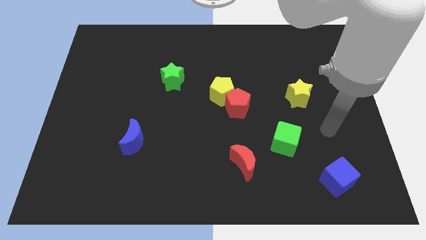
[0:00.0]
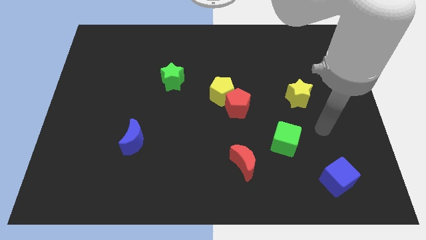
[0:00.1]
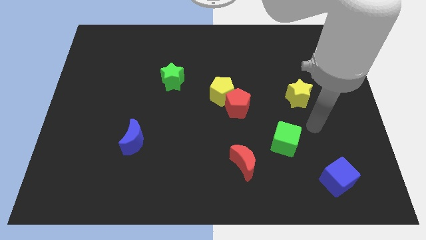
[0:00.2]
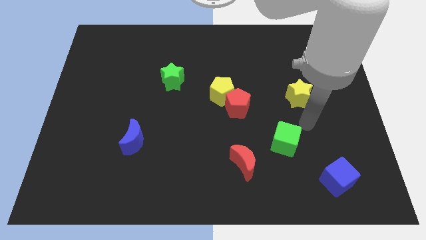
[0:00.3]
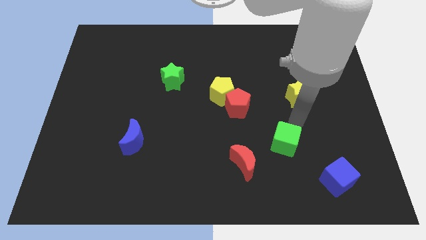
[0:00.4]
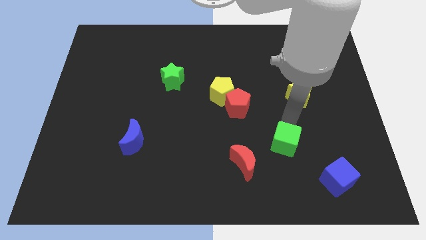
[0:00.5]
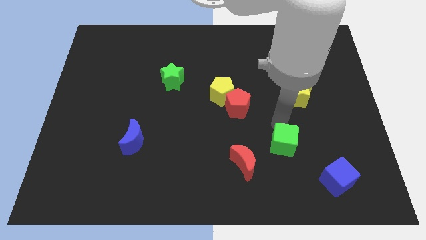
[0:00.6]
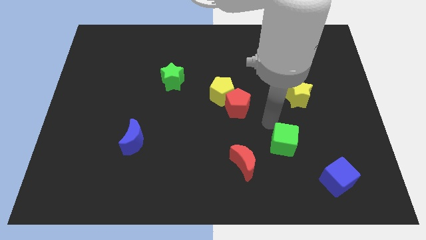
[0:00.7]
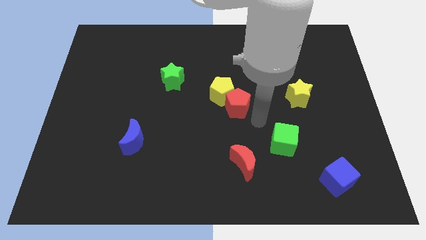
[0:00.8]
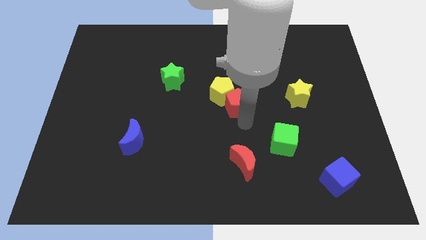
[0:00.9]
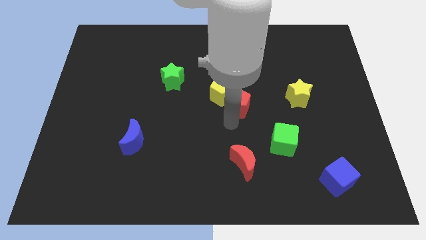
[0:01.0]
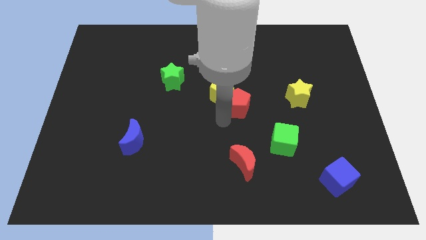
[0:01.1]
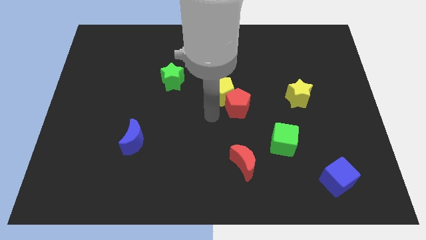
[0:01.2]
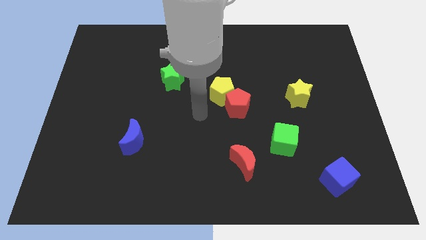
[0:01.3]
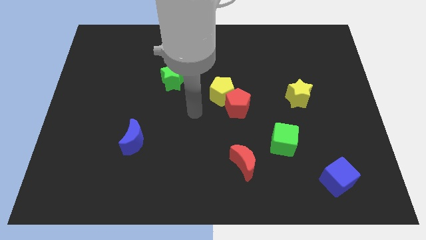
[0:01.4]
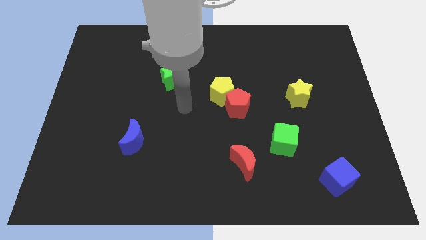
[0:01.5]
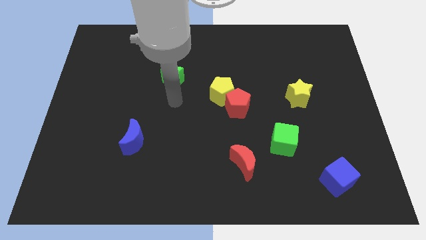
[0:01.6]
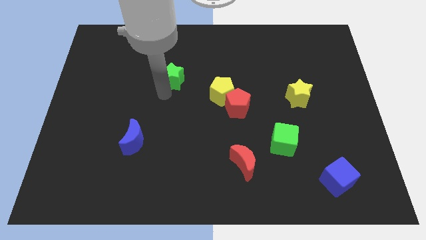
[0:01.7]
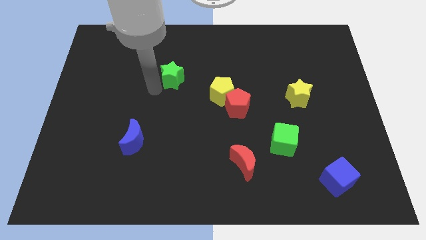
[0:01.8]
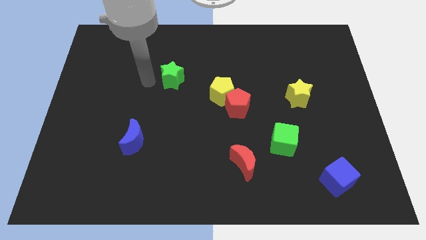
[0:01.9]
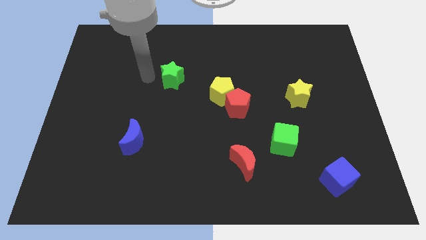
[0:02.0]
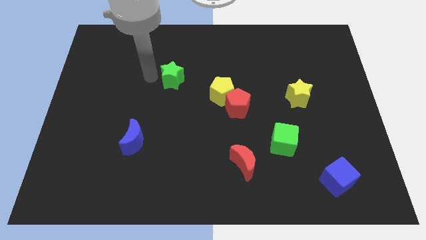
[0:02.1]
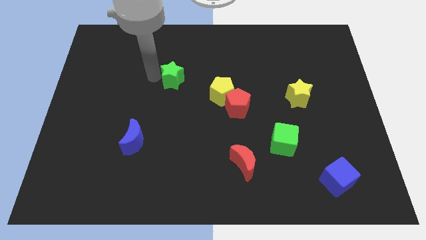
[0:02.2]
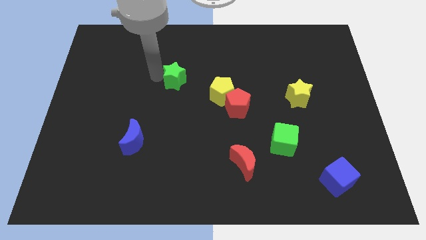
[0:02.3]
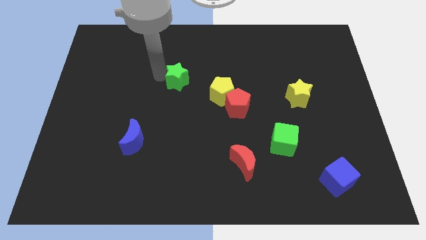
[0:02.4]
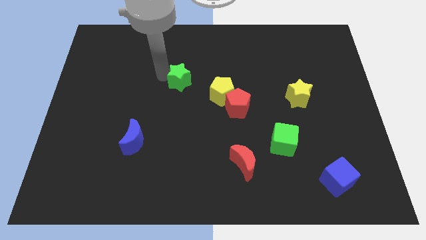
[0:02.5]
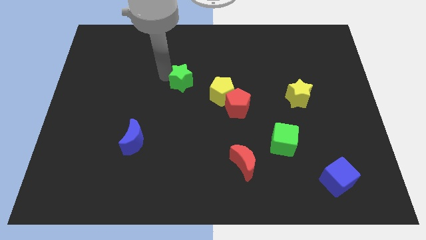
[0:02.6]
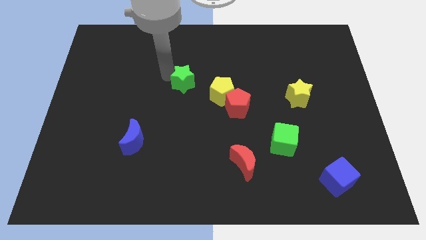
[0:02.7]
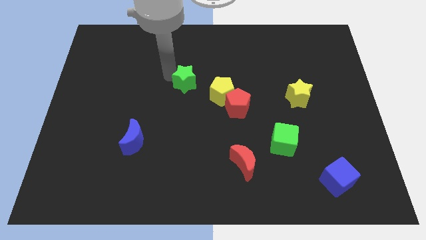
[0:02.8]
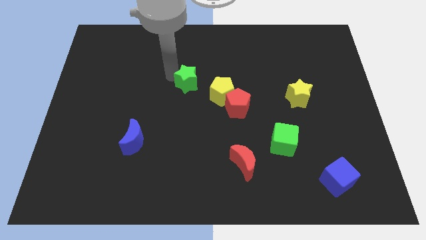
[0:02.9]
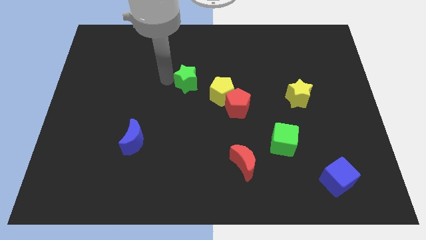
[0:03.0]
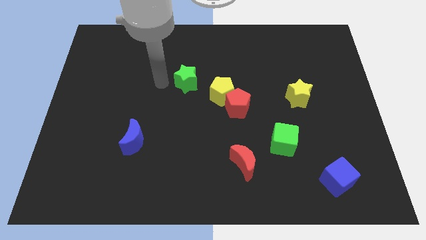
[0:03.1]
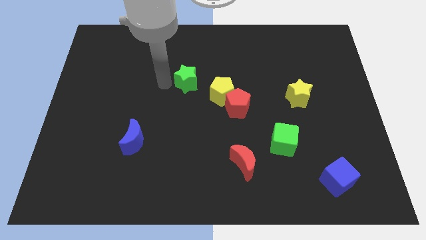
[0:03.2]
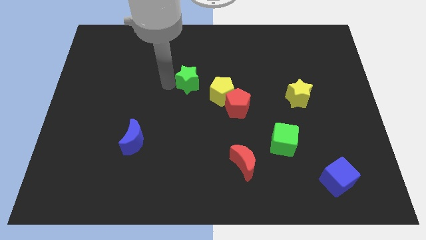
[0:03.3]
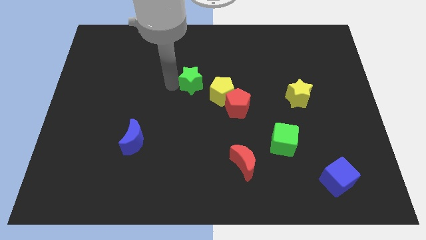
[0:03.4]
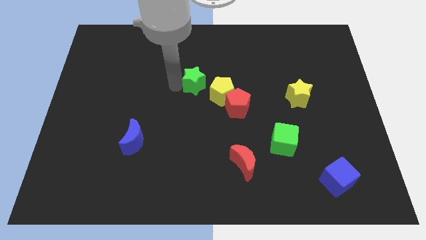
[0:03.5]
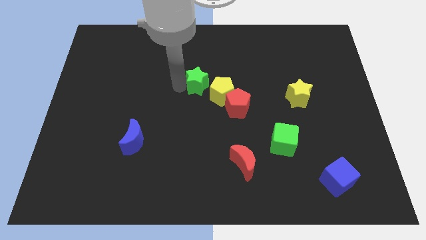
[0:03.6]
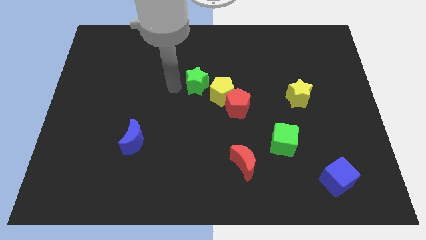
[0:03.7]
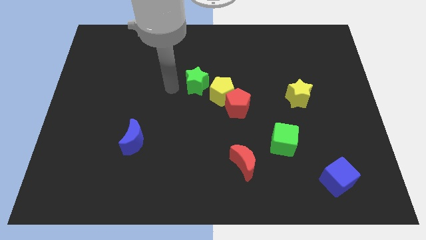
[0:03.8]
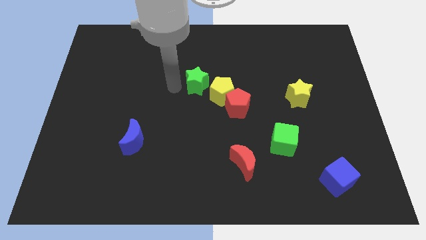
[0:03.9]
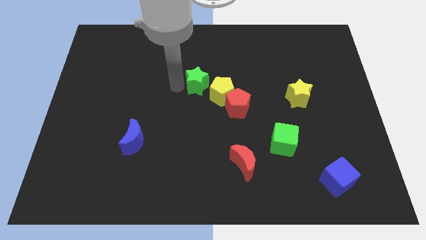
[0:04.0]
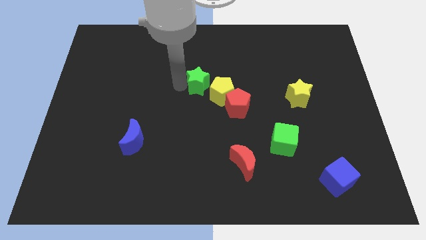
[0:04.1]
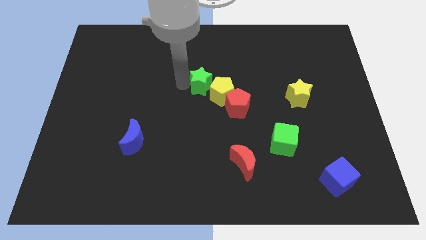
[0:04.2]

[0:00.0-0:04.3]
push the green star a bit to the right

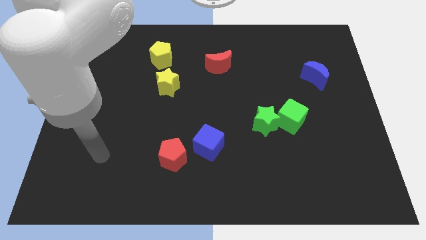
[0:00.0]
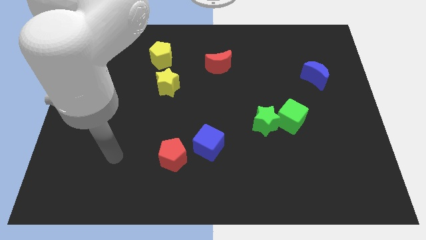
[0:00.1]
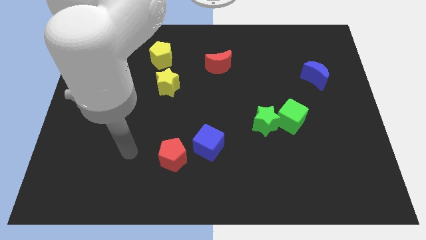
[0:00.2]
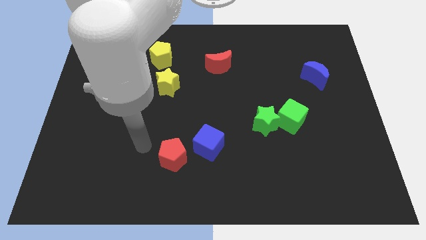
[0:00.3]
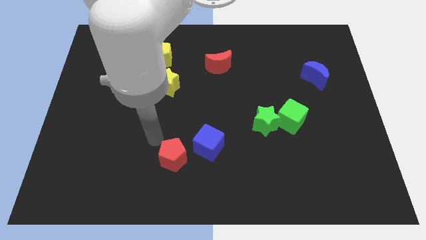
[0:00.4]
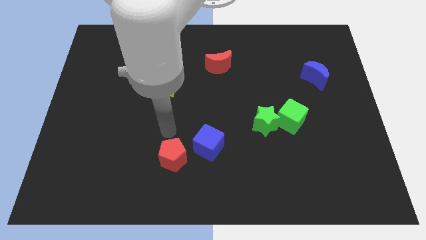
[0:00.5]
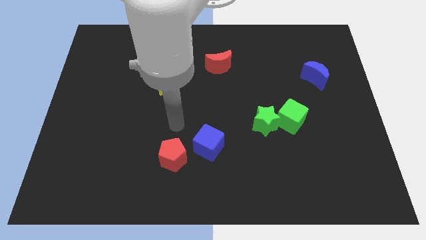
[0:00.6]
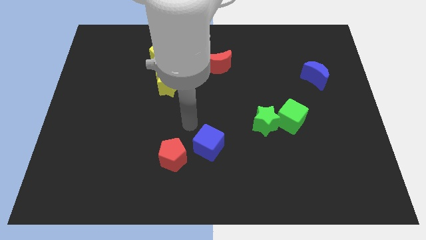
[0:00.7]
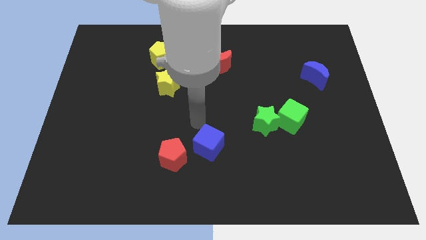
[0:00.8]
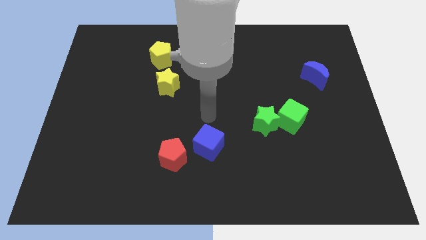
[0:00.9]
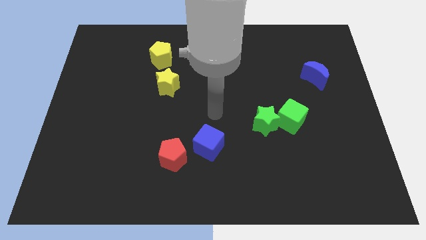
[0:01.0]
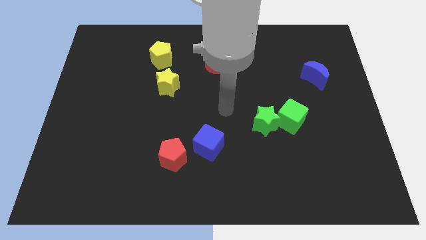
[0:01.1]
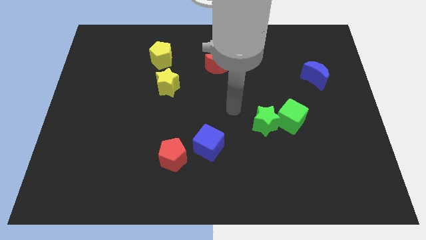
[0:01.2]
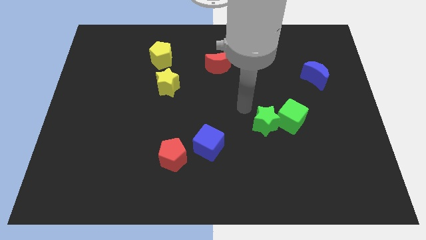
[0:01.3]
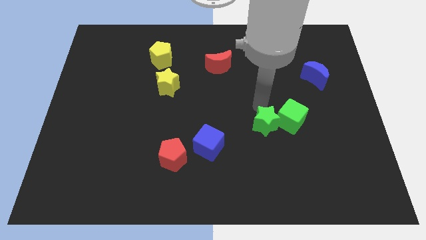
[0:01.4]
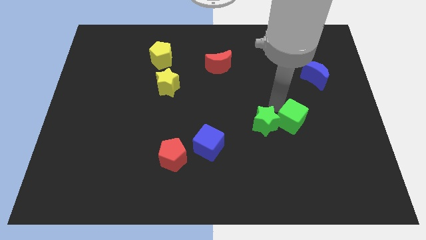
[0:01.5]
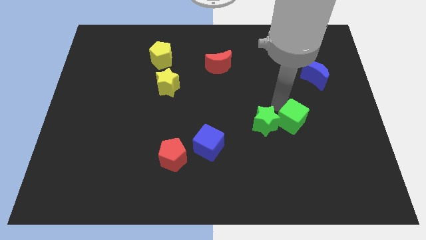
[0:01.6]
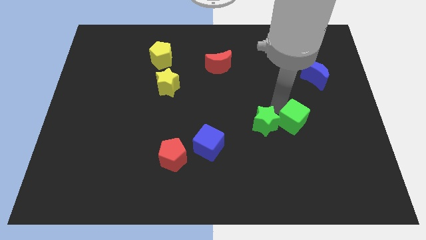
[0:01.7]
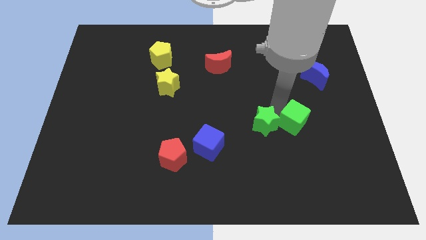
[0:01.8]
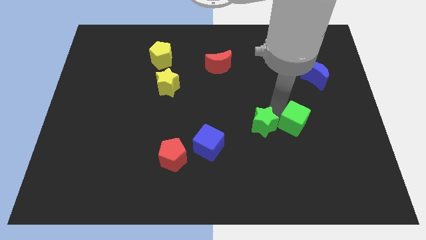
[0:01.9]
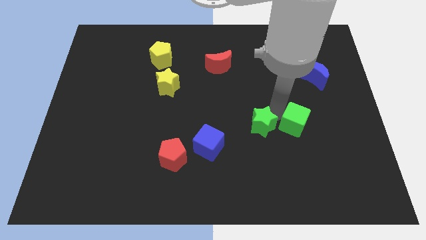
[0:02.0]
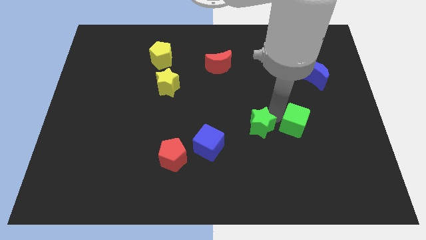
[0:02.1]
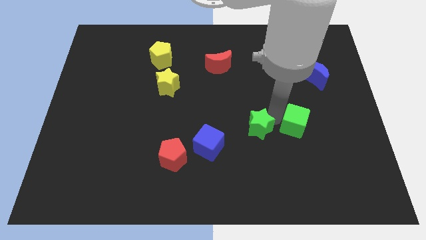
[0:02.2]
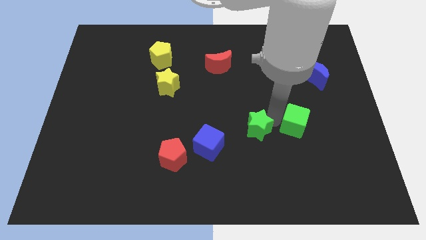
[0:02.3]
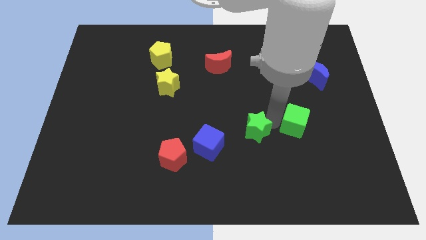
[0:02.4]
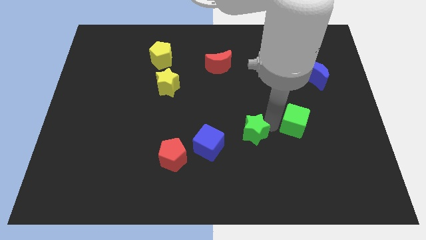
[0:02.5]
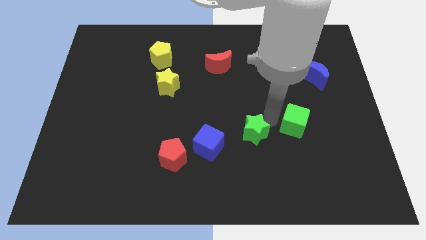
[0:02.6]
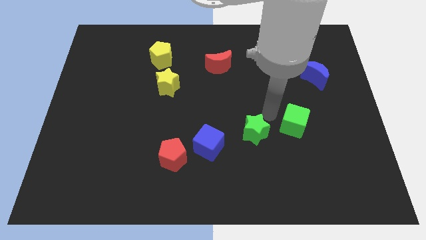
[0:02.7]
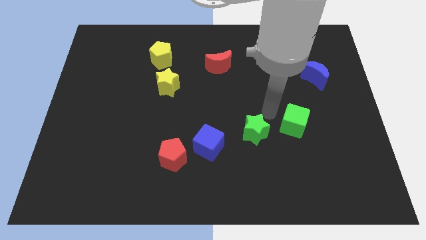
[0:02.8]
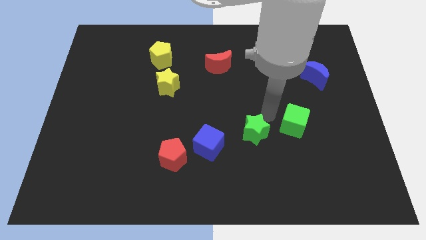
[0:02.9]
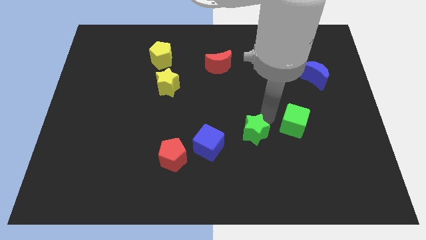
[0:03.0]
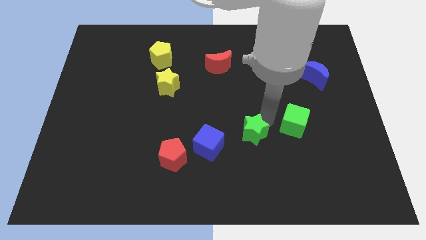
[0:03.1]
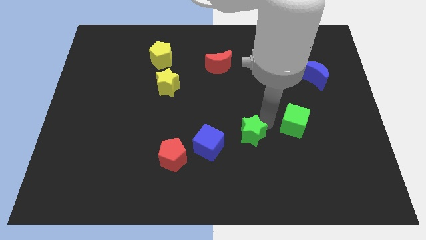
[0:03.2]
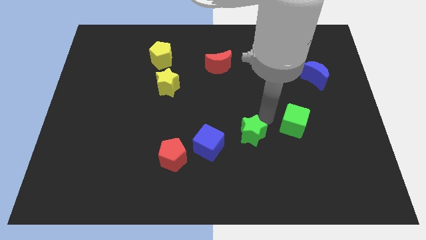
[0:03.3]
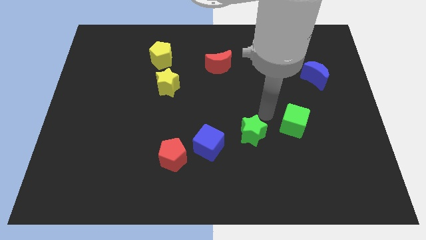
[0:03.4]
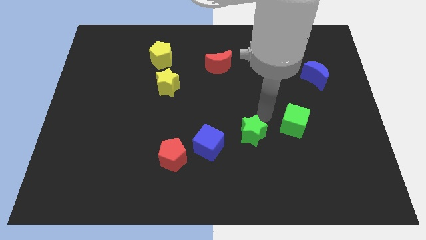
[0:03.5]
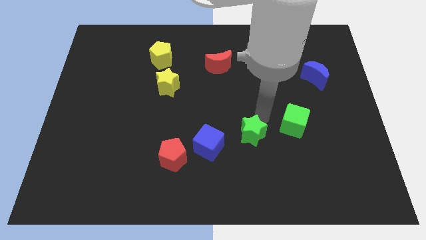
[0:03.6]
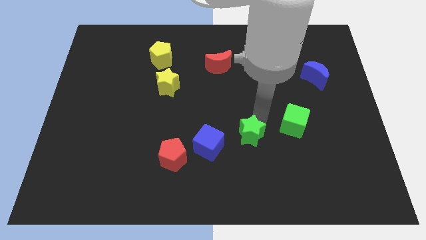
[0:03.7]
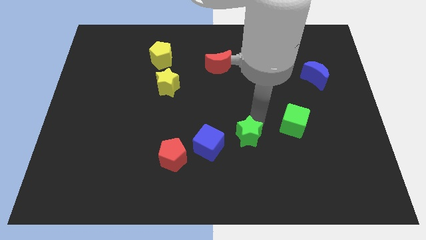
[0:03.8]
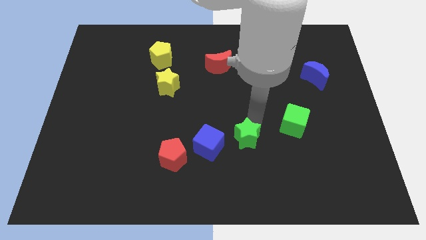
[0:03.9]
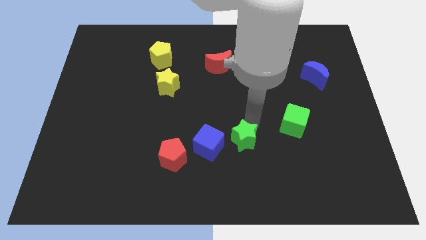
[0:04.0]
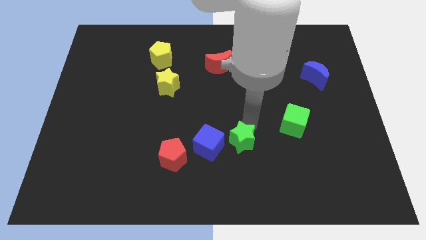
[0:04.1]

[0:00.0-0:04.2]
slightly move the green star down and to the left diagonally
